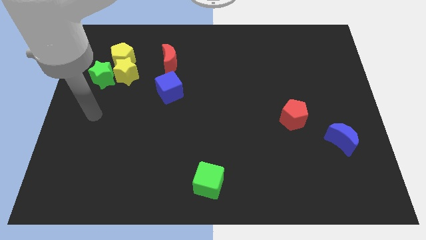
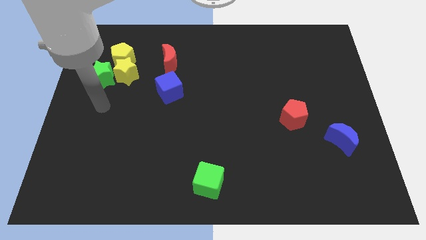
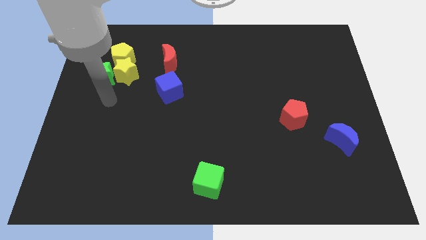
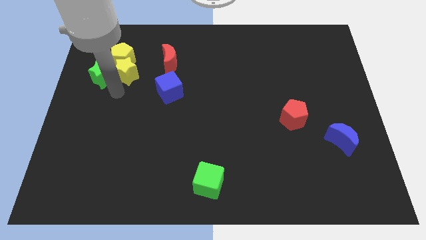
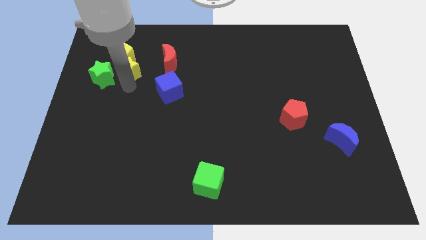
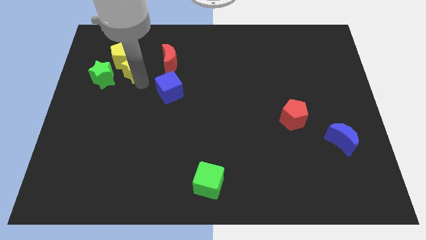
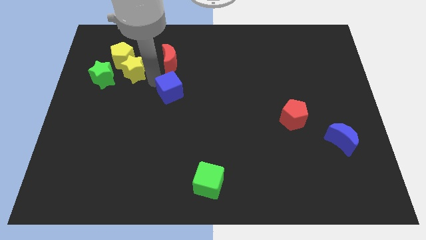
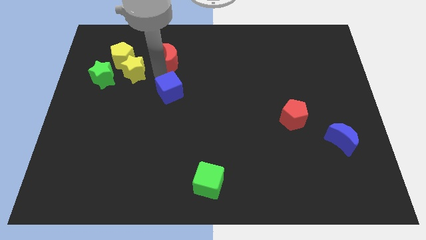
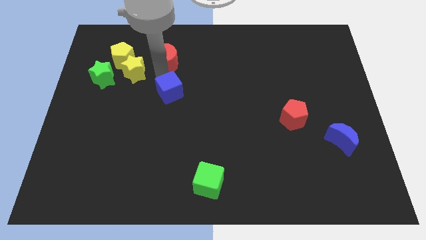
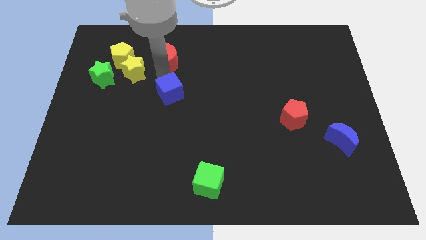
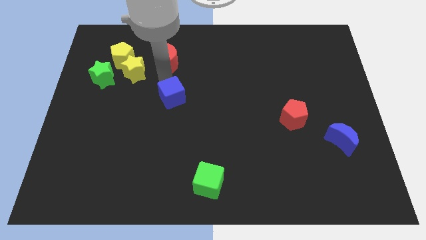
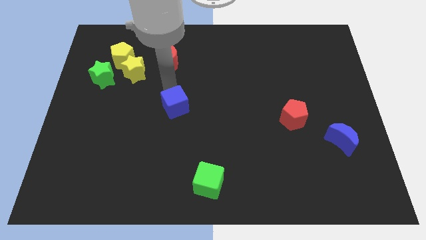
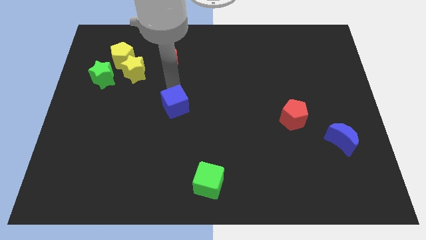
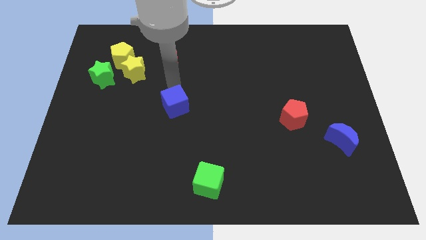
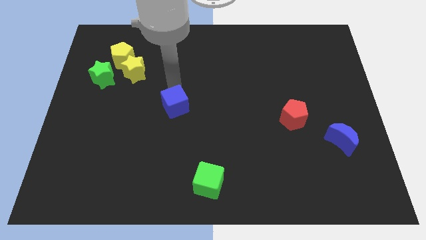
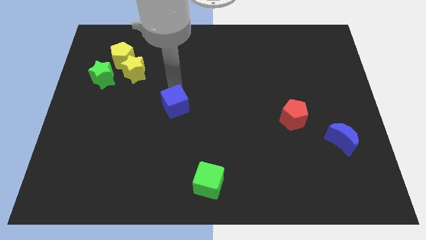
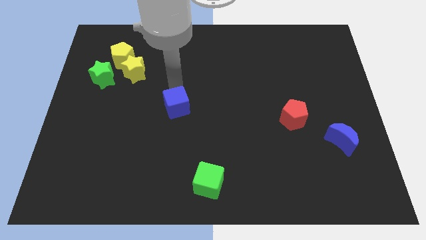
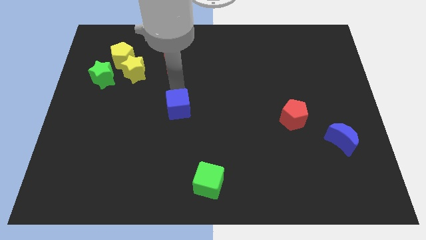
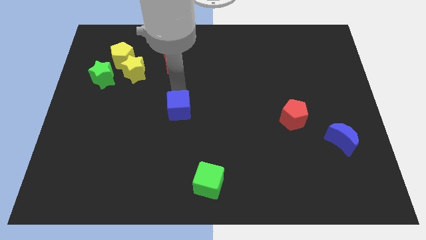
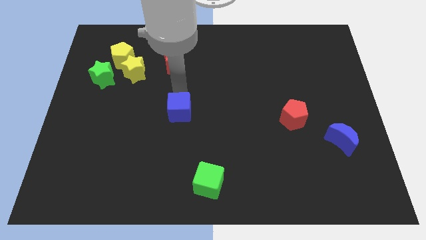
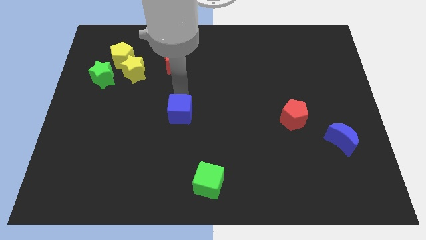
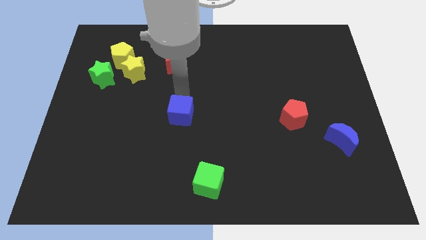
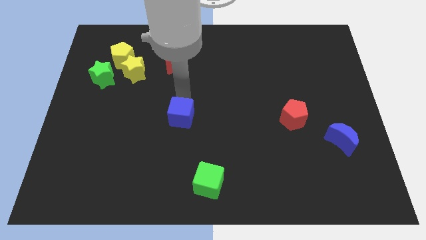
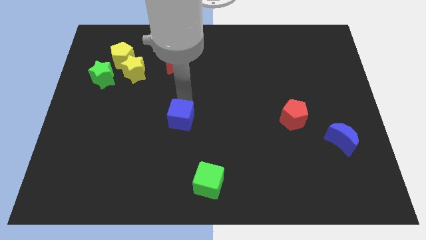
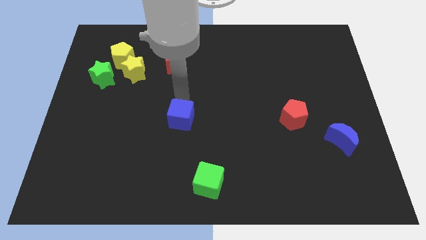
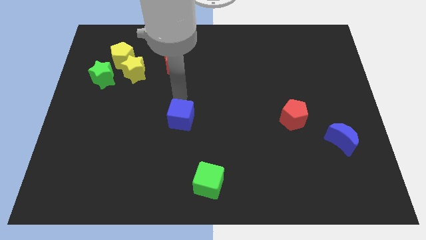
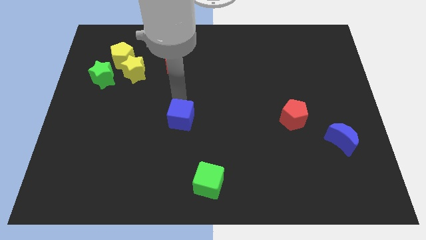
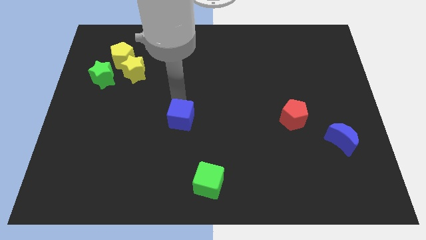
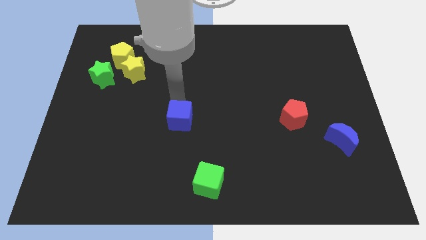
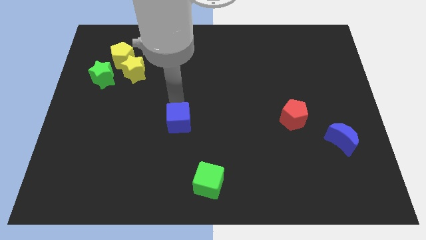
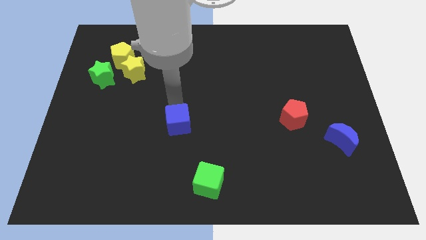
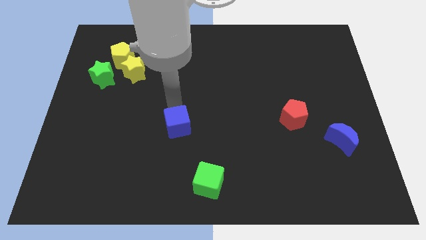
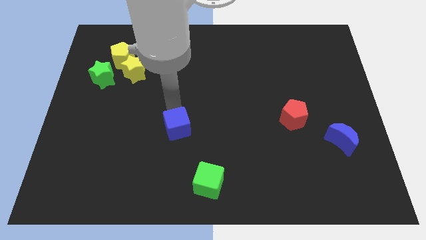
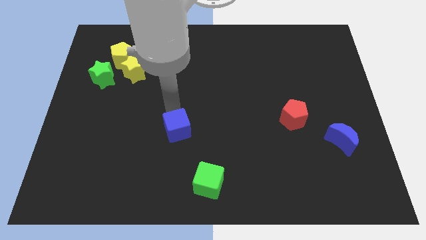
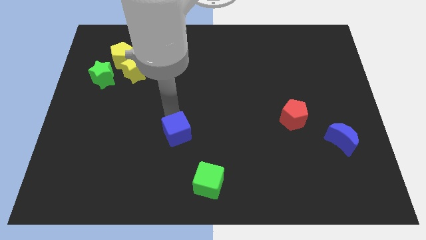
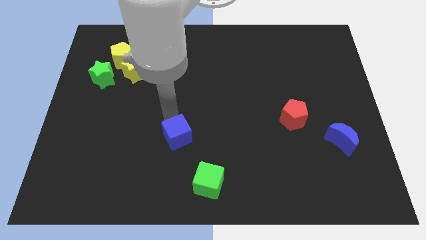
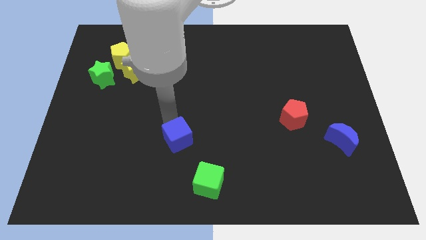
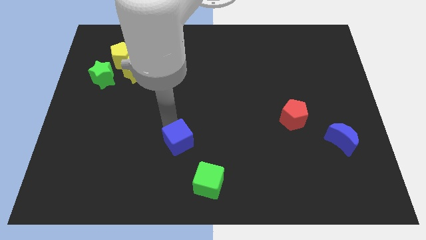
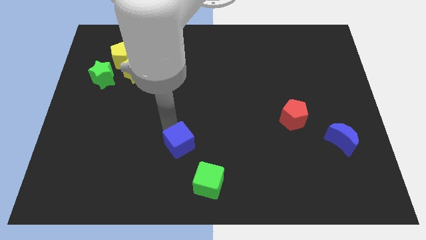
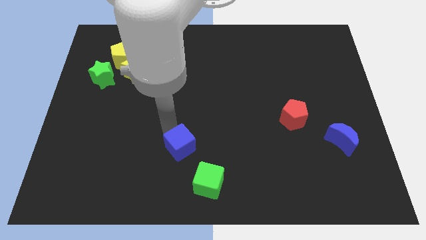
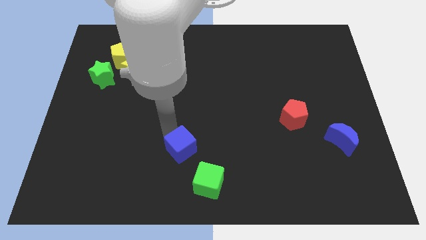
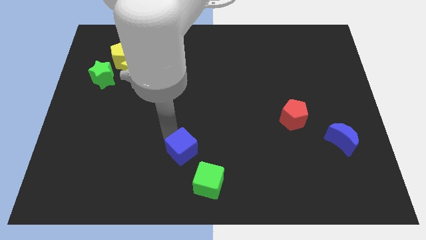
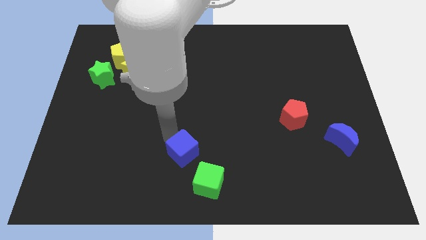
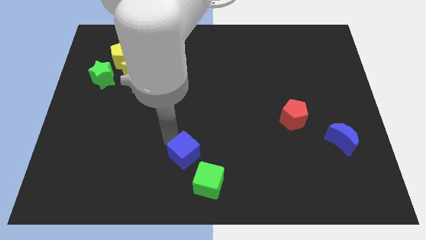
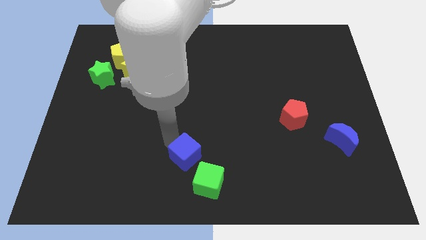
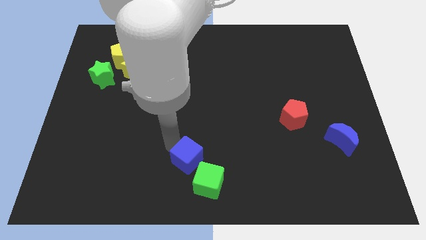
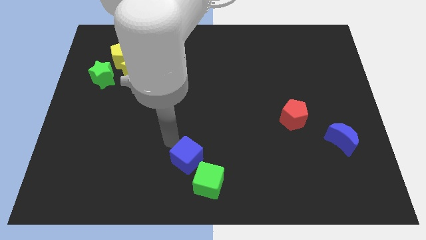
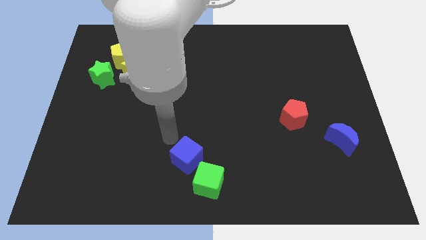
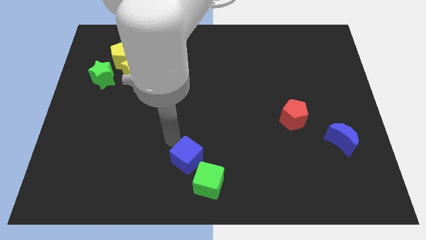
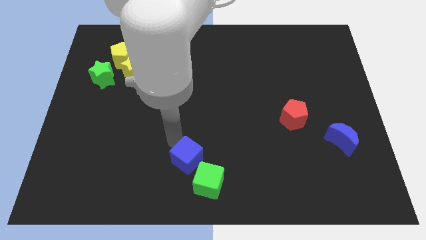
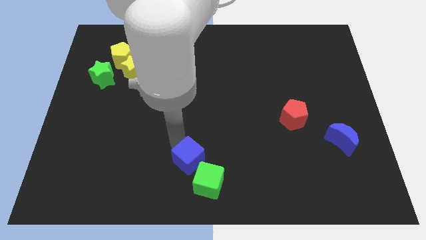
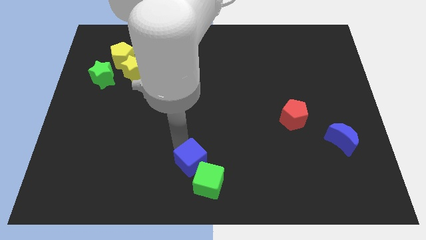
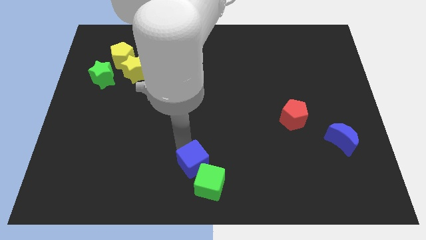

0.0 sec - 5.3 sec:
move the blue cube close to the green cube

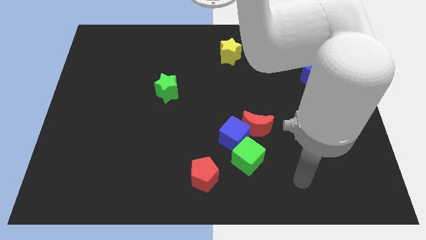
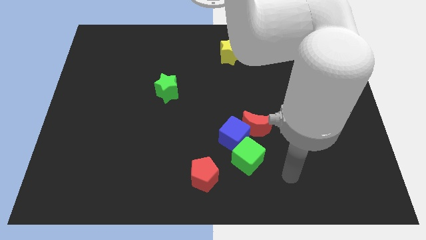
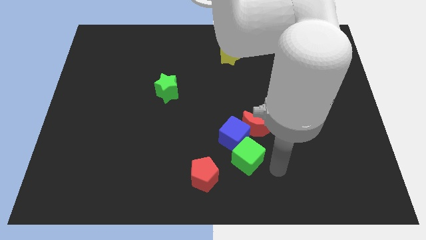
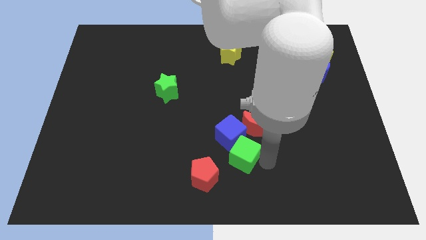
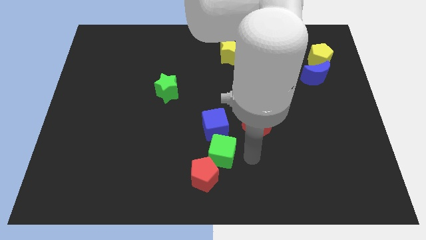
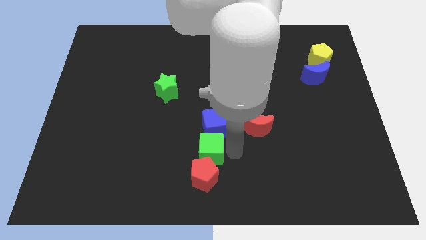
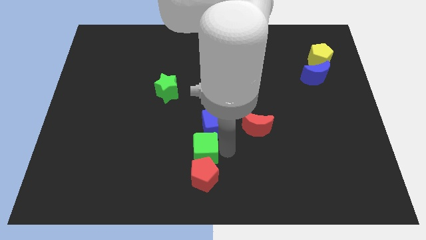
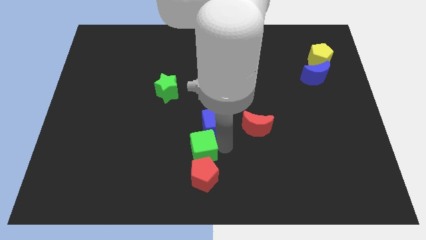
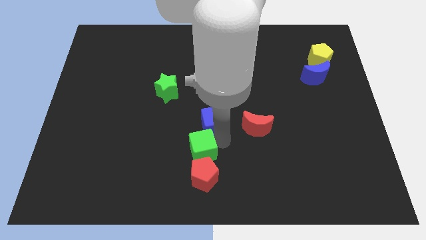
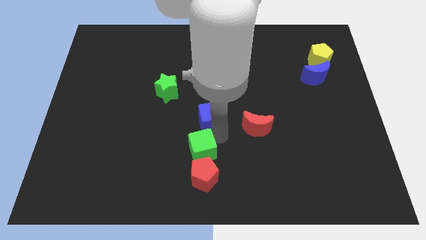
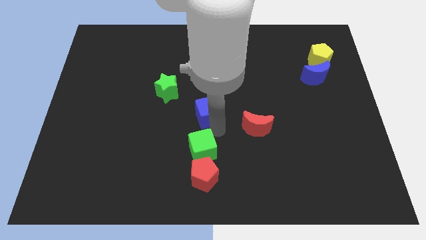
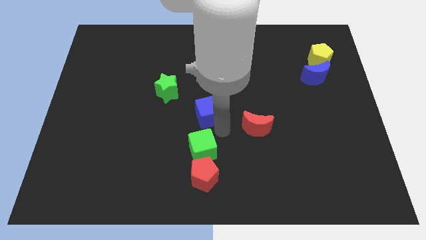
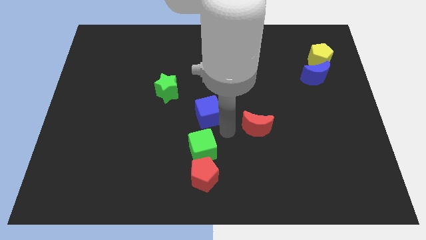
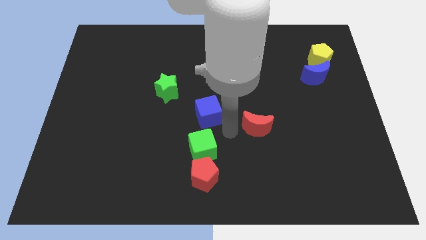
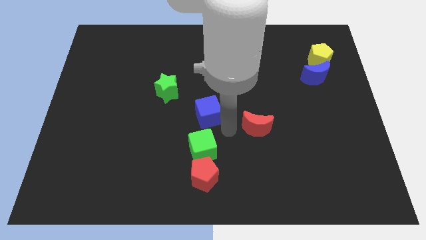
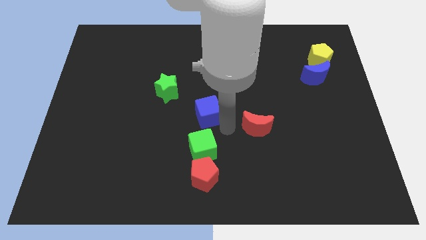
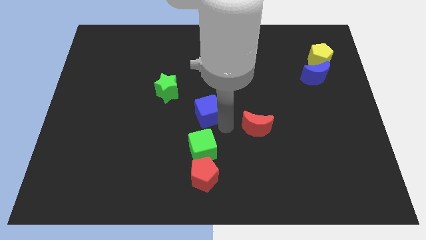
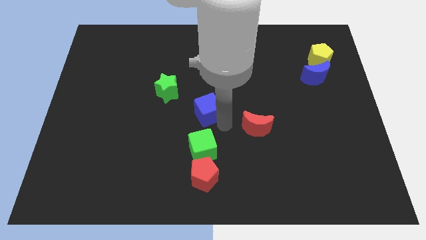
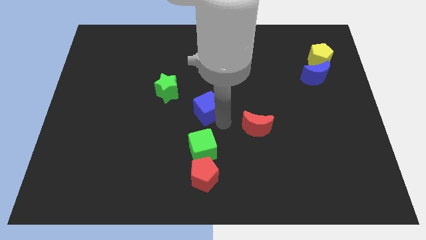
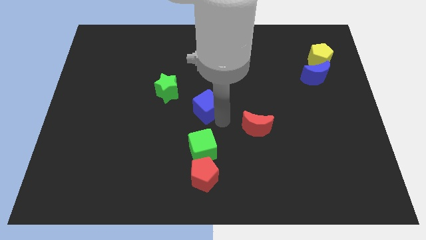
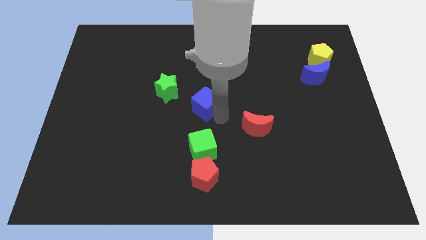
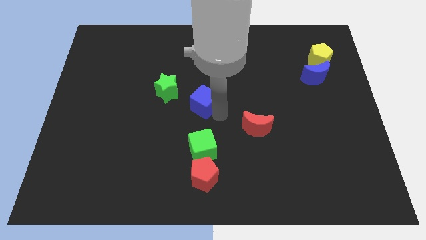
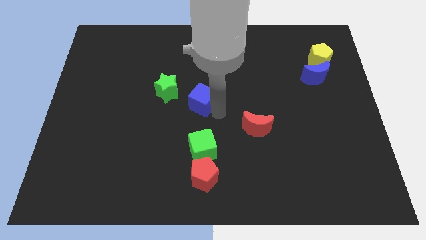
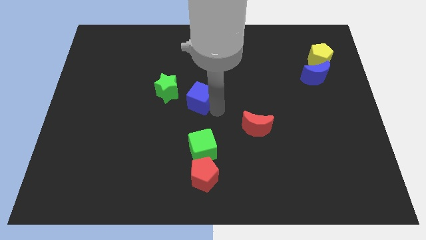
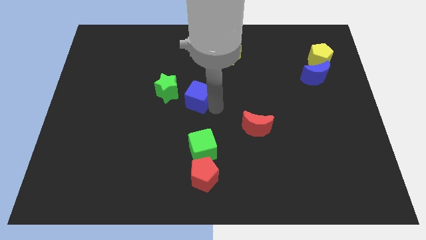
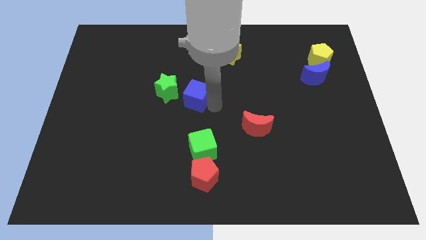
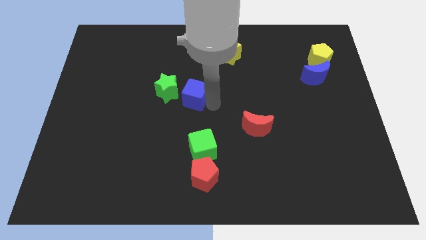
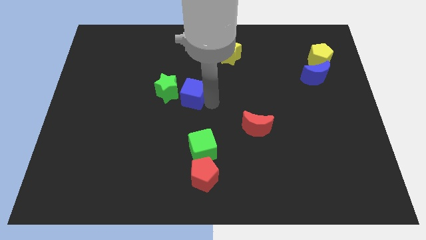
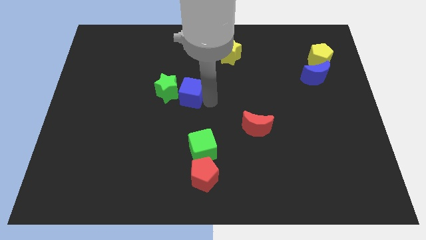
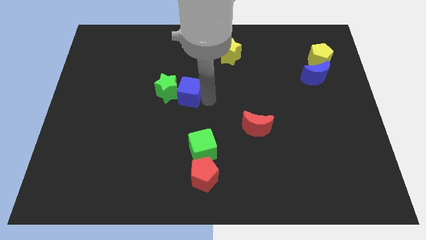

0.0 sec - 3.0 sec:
put the blue cube to the green star
